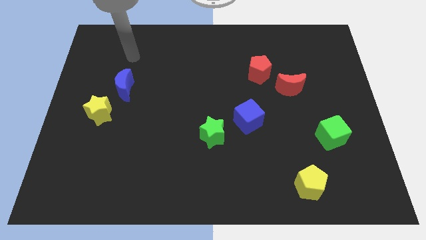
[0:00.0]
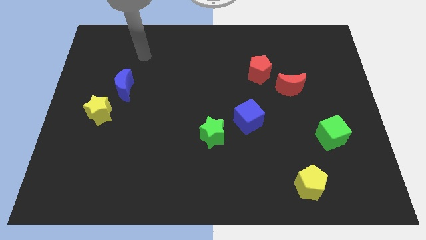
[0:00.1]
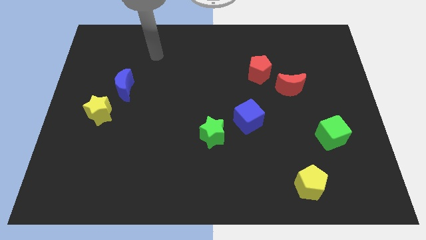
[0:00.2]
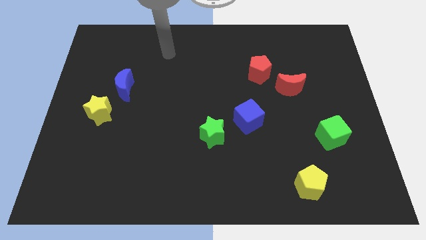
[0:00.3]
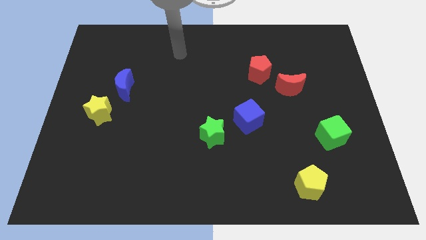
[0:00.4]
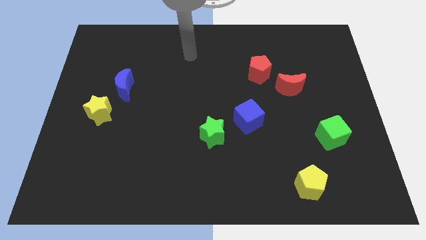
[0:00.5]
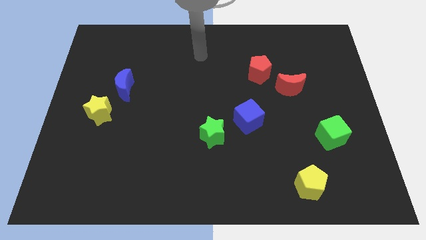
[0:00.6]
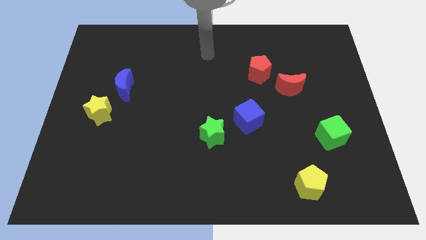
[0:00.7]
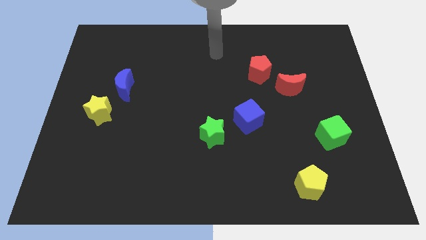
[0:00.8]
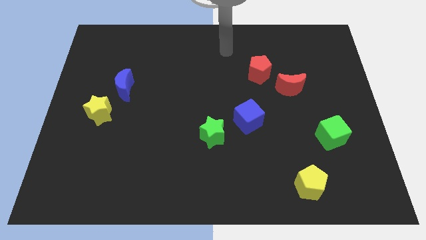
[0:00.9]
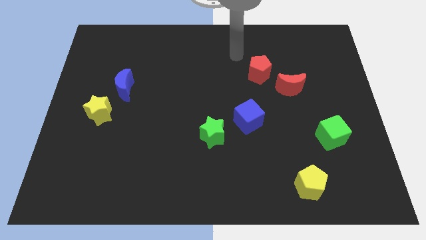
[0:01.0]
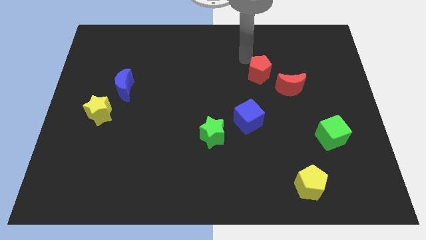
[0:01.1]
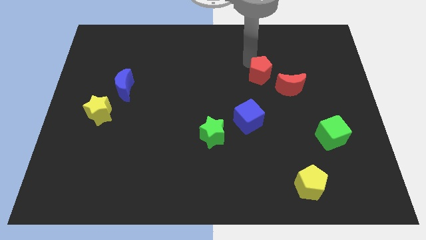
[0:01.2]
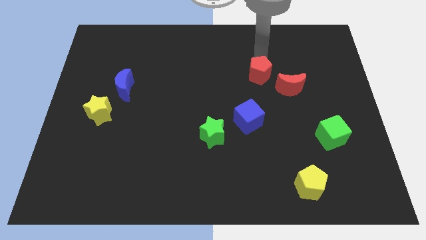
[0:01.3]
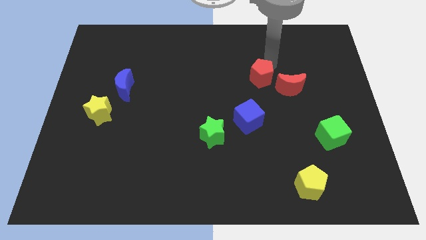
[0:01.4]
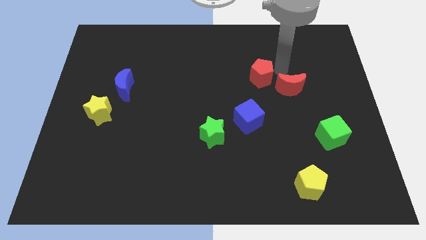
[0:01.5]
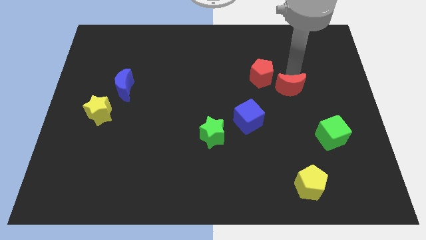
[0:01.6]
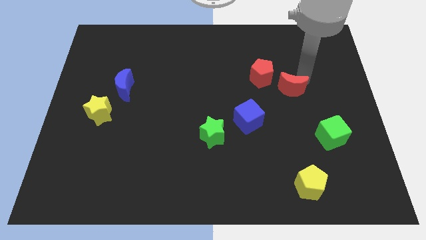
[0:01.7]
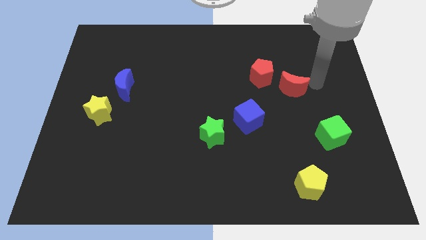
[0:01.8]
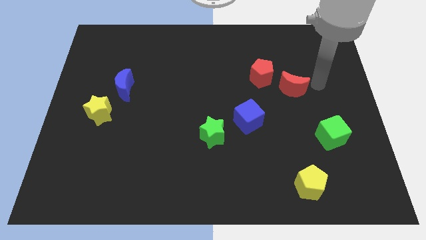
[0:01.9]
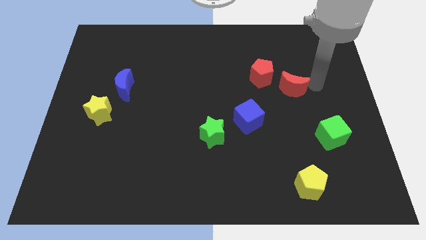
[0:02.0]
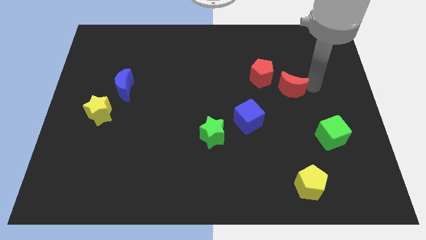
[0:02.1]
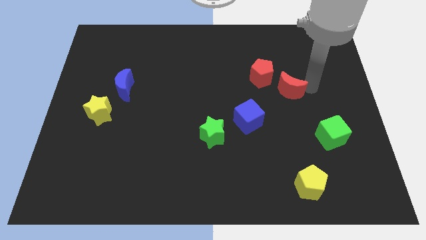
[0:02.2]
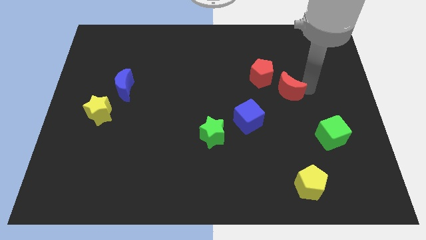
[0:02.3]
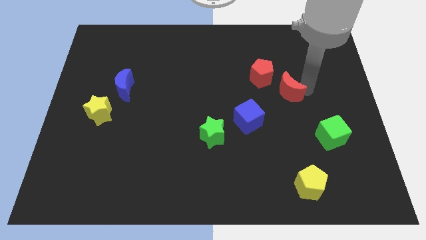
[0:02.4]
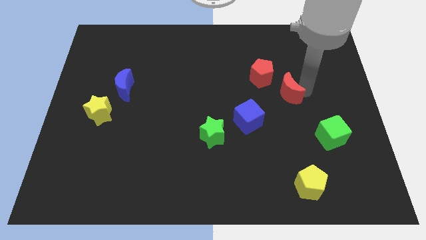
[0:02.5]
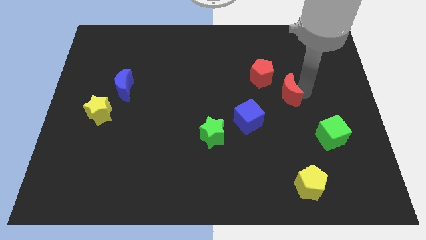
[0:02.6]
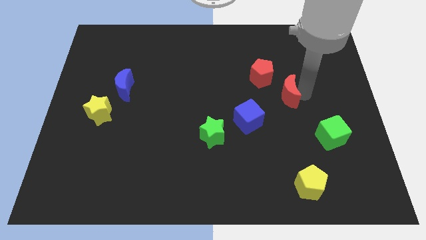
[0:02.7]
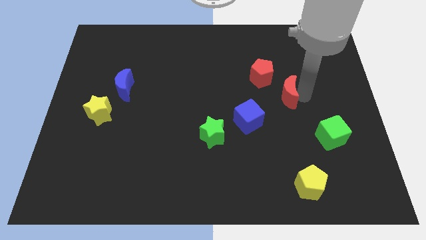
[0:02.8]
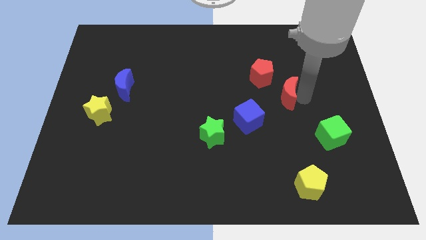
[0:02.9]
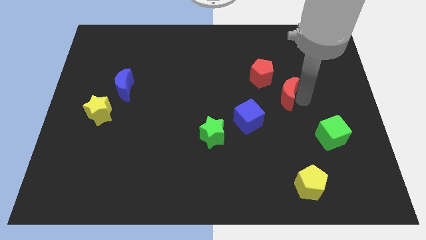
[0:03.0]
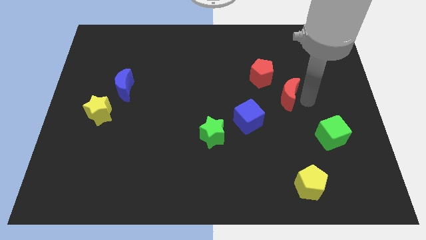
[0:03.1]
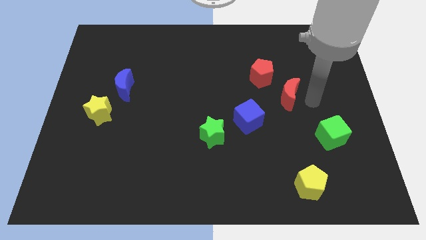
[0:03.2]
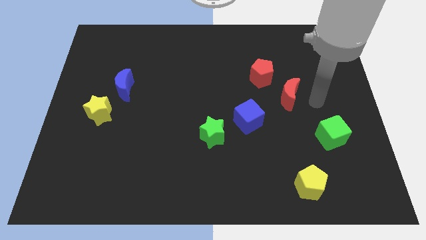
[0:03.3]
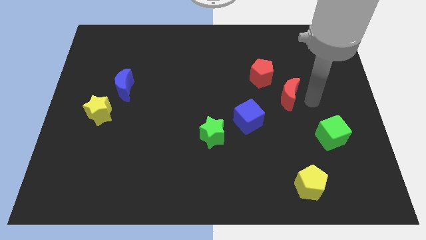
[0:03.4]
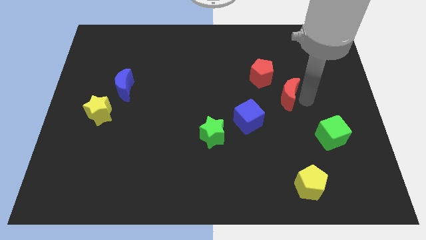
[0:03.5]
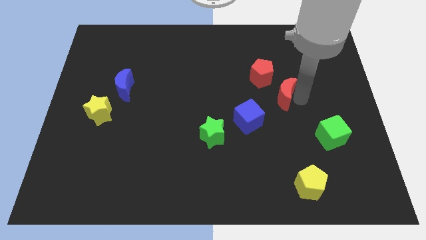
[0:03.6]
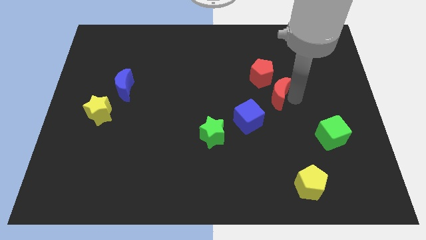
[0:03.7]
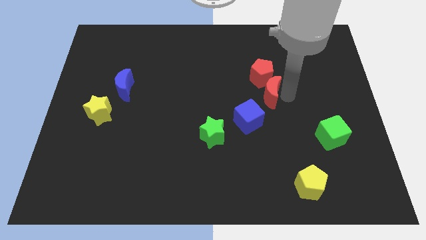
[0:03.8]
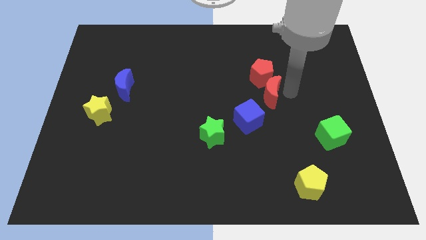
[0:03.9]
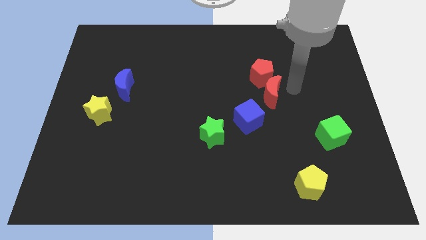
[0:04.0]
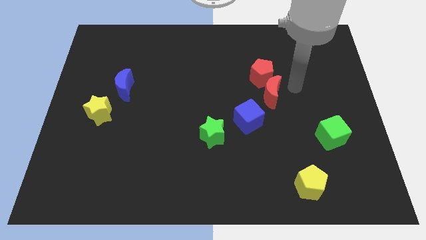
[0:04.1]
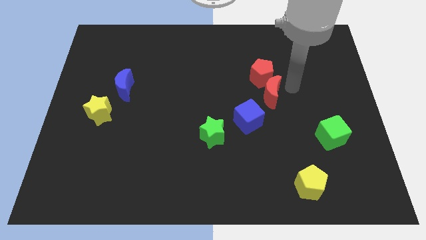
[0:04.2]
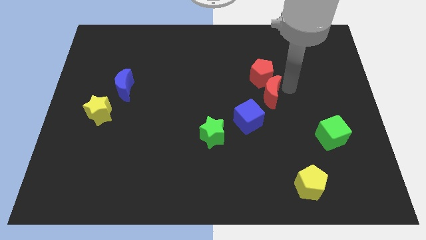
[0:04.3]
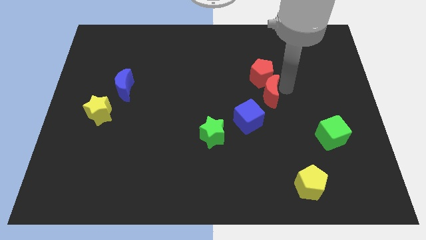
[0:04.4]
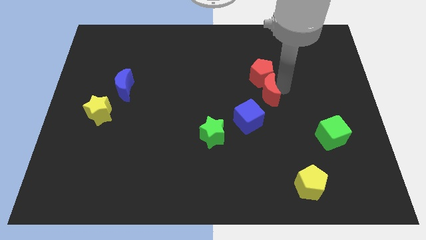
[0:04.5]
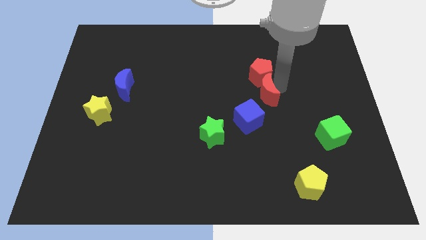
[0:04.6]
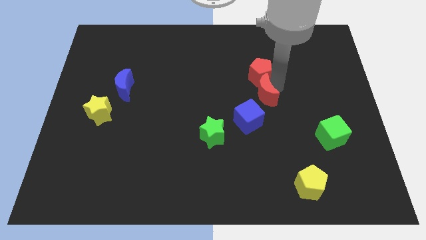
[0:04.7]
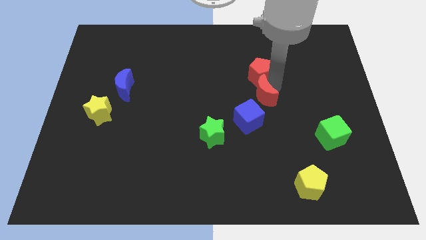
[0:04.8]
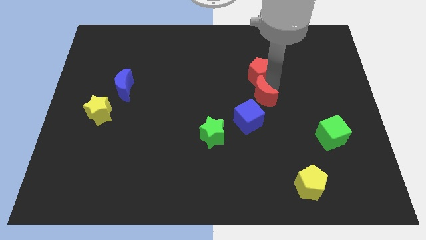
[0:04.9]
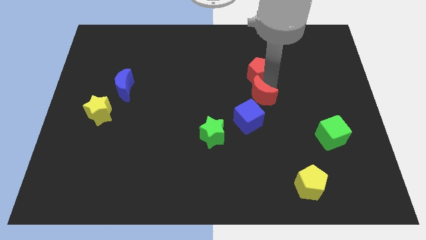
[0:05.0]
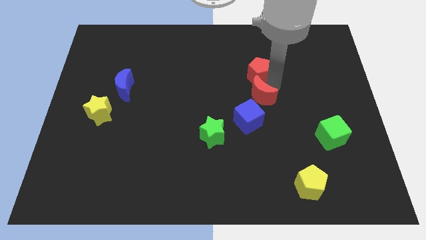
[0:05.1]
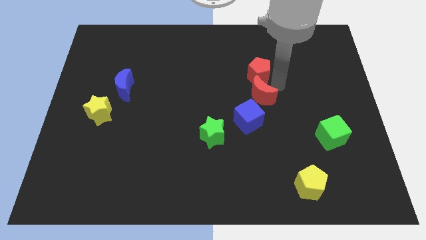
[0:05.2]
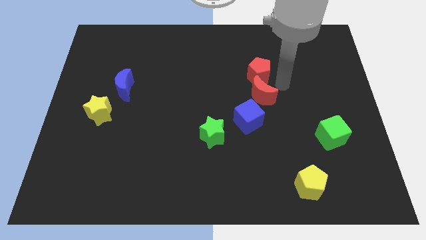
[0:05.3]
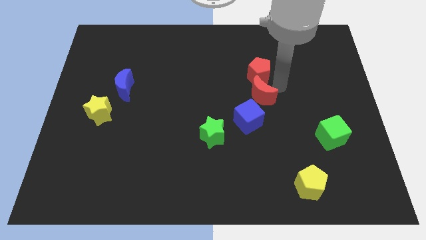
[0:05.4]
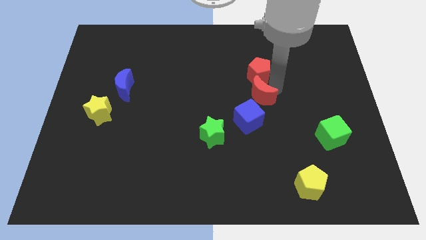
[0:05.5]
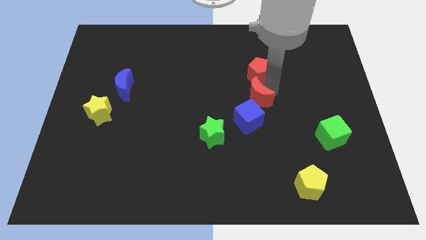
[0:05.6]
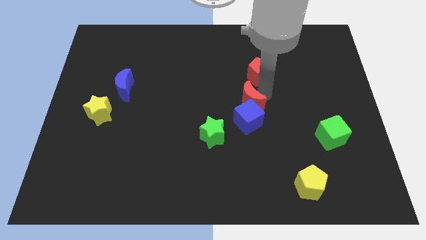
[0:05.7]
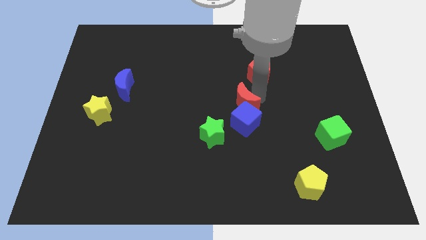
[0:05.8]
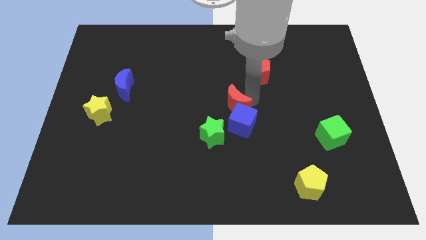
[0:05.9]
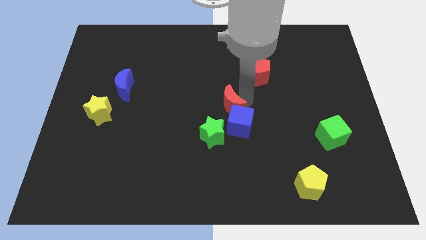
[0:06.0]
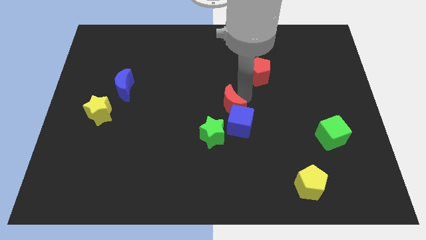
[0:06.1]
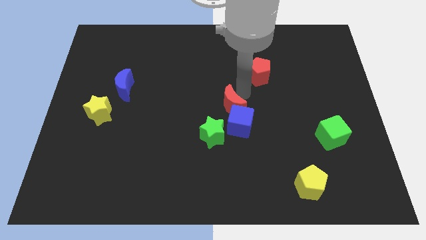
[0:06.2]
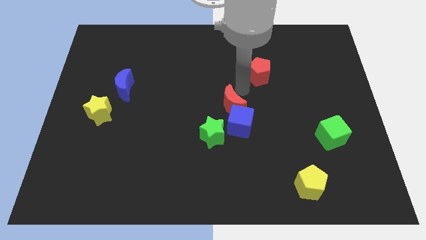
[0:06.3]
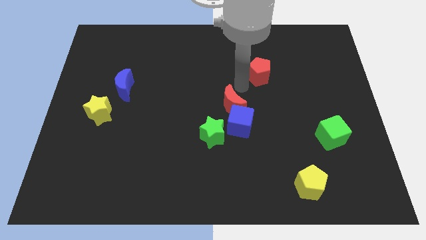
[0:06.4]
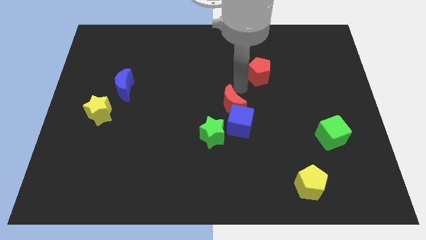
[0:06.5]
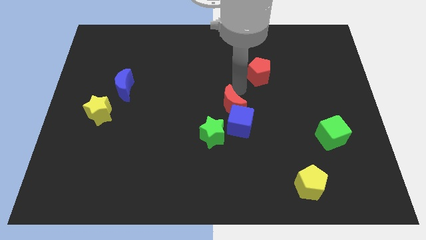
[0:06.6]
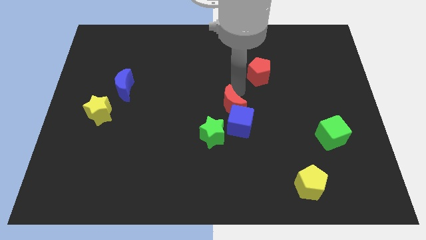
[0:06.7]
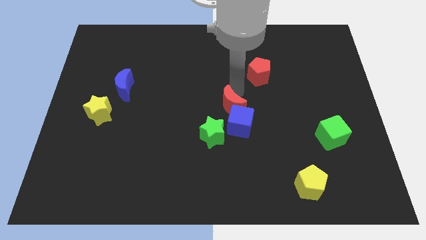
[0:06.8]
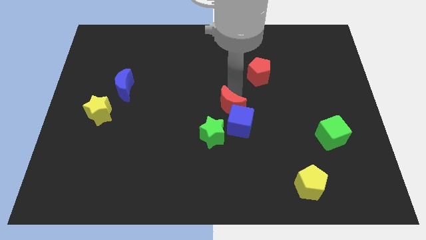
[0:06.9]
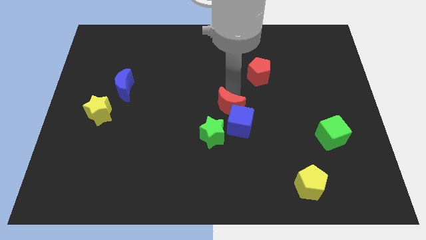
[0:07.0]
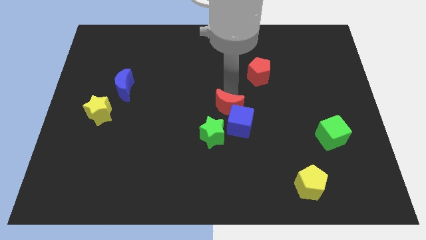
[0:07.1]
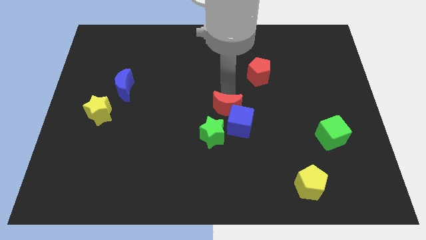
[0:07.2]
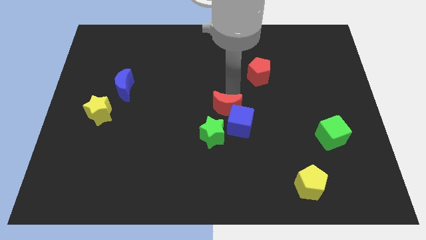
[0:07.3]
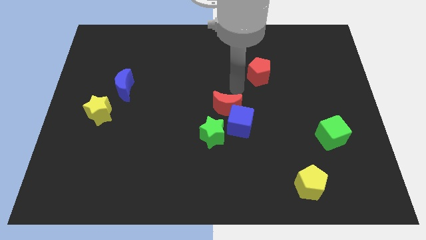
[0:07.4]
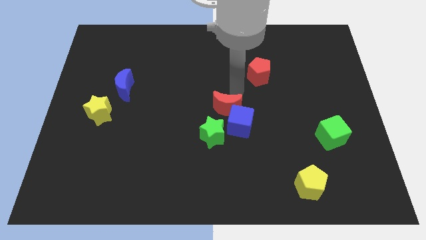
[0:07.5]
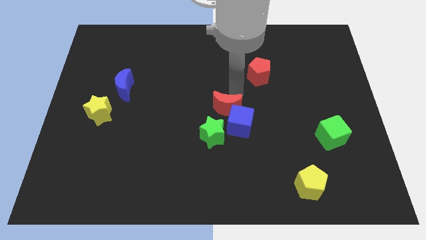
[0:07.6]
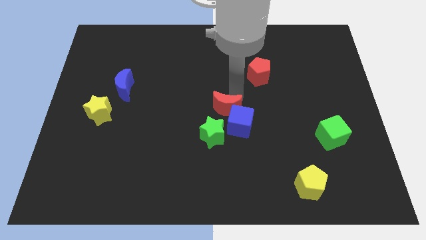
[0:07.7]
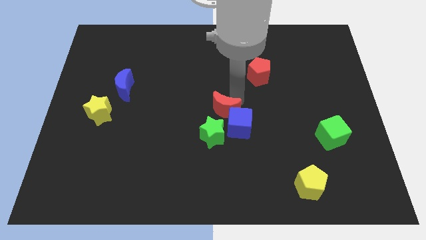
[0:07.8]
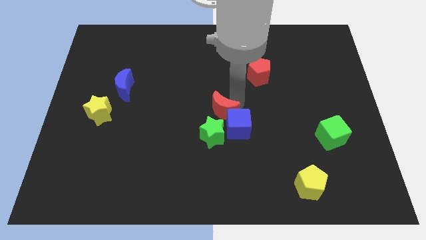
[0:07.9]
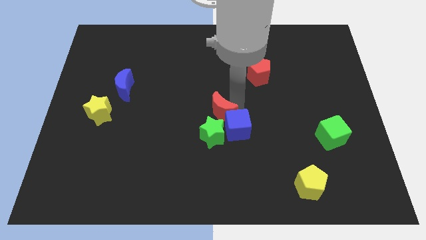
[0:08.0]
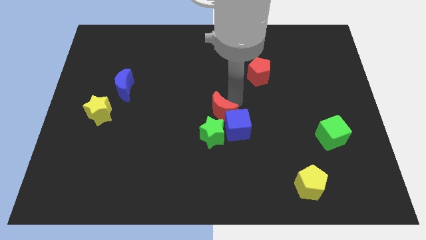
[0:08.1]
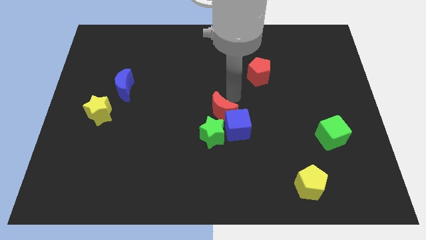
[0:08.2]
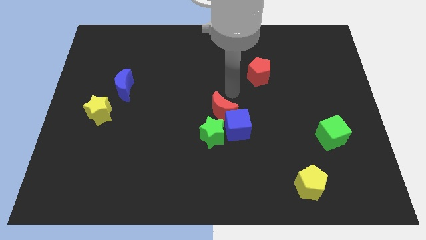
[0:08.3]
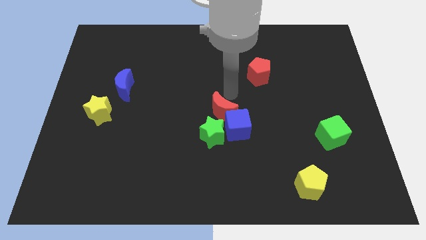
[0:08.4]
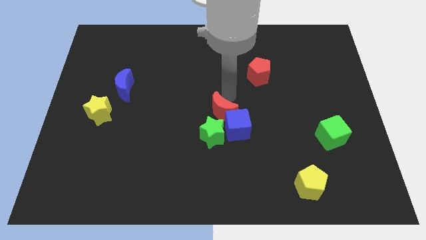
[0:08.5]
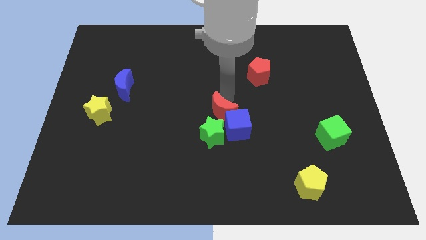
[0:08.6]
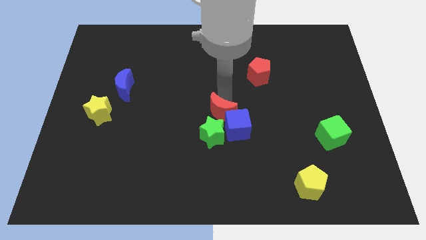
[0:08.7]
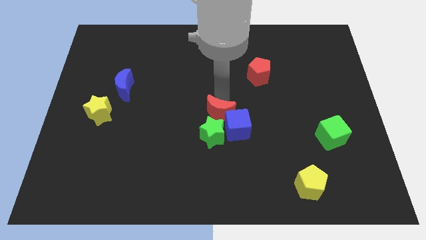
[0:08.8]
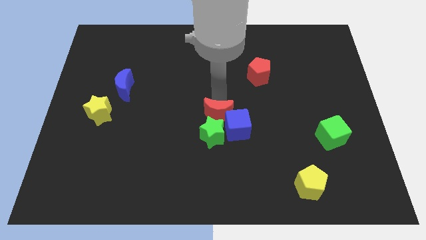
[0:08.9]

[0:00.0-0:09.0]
put the red moon next to the green star
